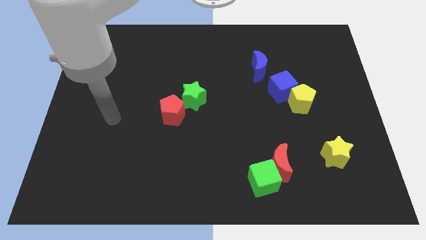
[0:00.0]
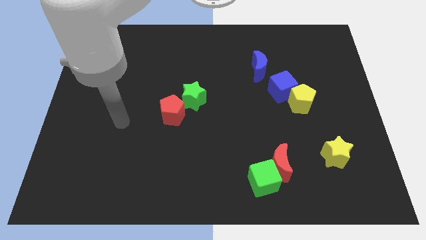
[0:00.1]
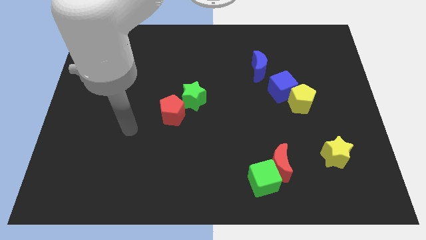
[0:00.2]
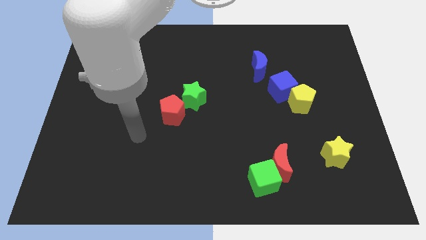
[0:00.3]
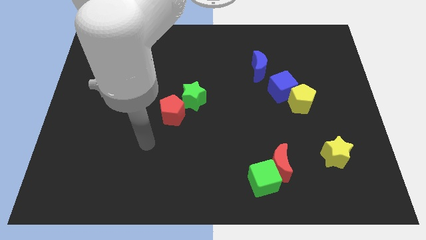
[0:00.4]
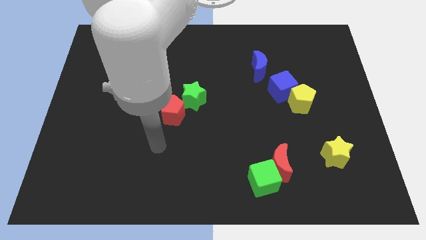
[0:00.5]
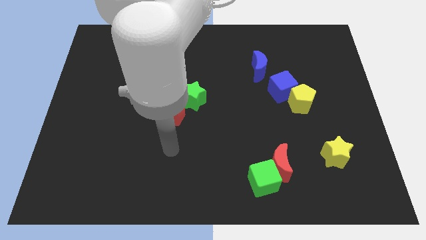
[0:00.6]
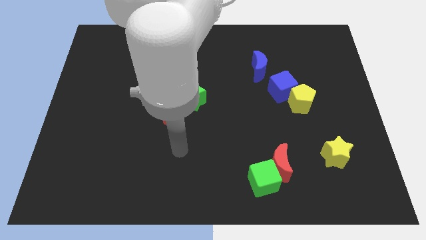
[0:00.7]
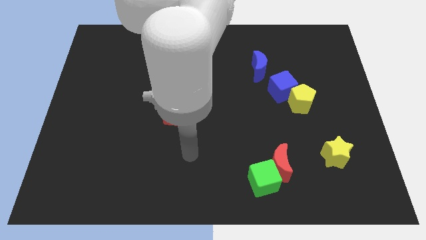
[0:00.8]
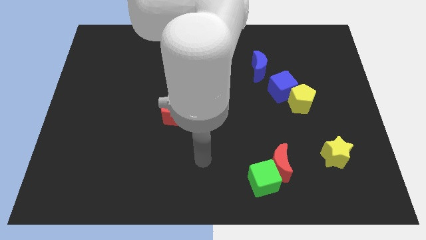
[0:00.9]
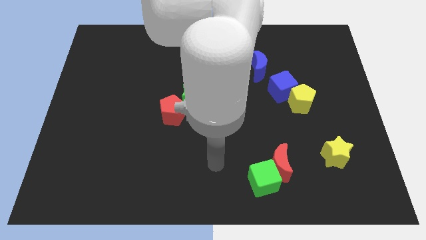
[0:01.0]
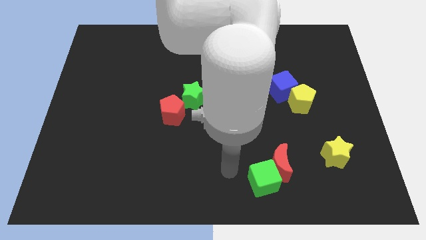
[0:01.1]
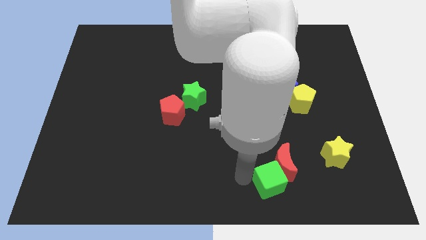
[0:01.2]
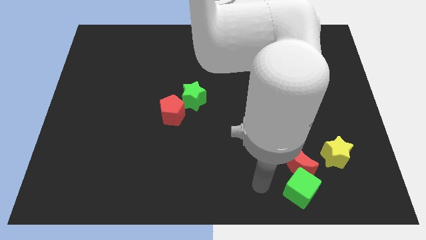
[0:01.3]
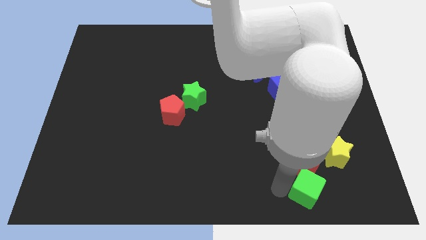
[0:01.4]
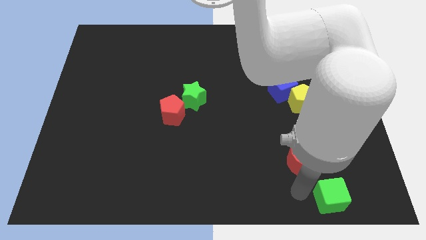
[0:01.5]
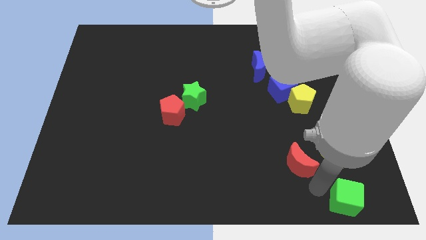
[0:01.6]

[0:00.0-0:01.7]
separate the red moon from the green cube

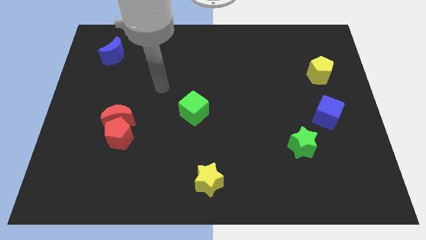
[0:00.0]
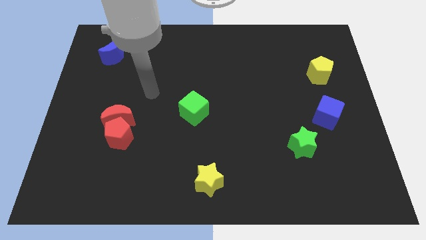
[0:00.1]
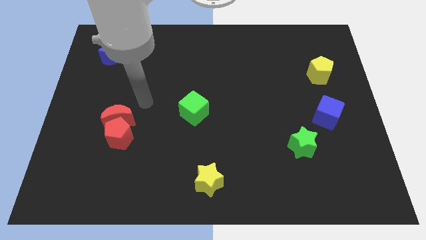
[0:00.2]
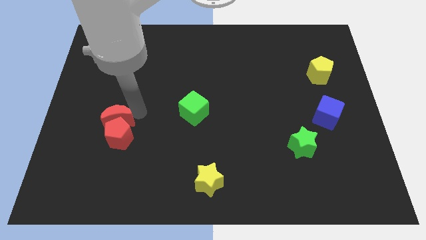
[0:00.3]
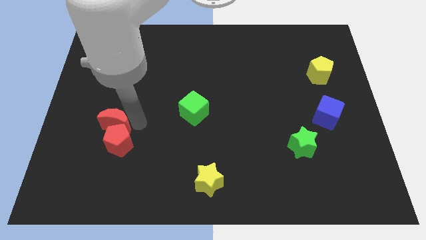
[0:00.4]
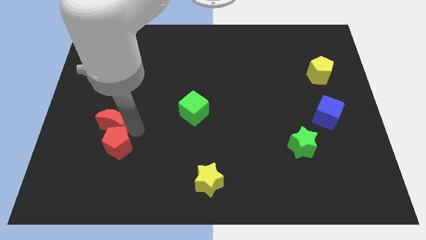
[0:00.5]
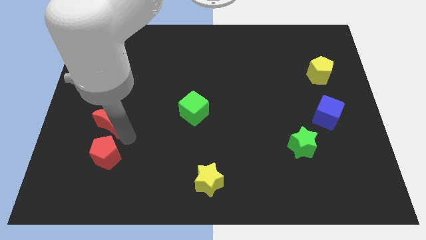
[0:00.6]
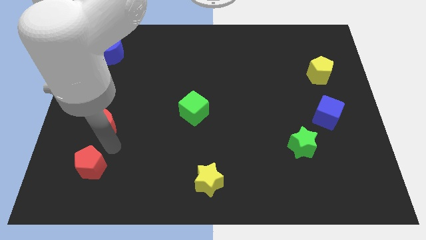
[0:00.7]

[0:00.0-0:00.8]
pull the red moon apart from the red pentagon

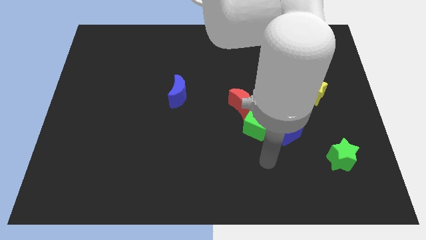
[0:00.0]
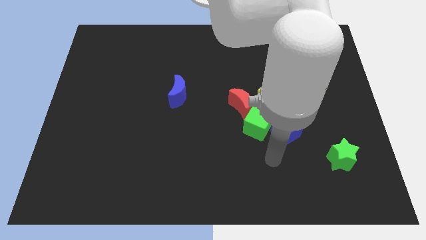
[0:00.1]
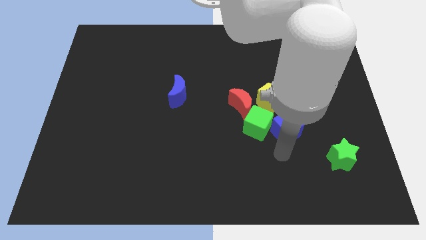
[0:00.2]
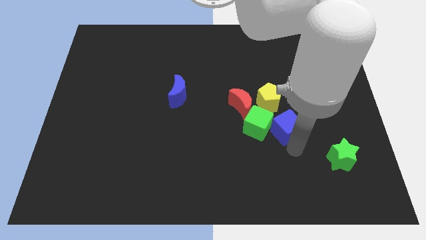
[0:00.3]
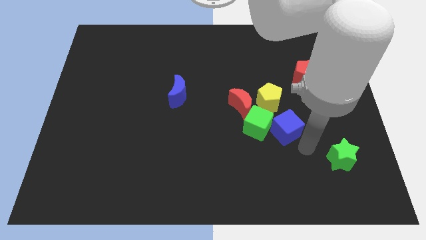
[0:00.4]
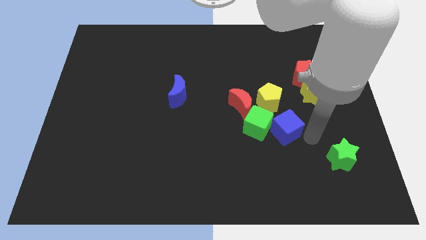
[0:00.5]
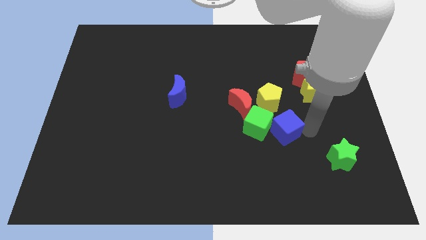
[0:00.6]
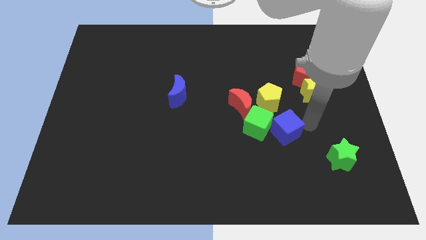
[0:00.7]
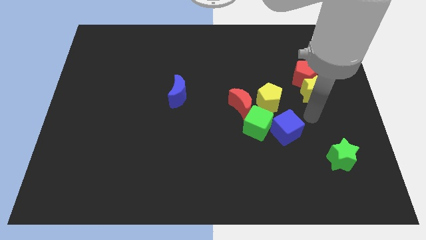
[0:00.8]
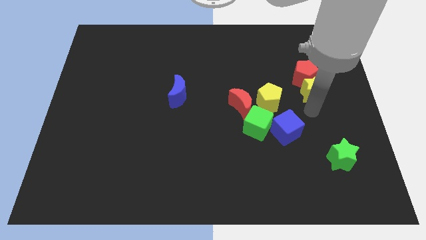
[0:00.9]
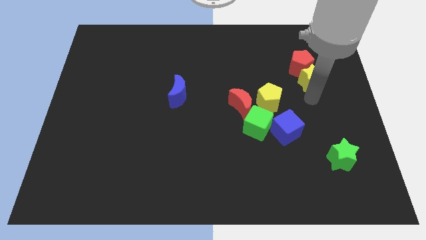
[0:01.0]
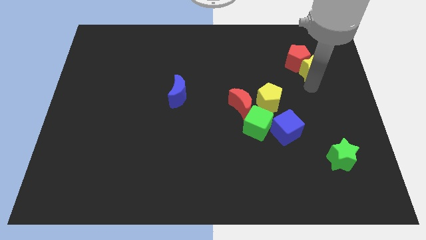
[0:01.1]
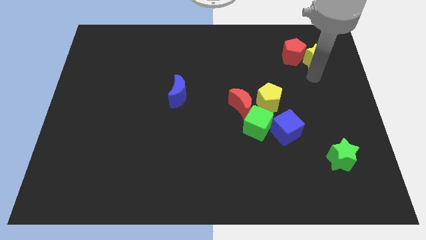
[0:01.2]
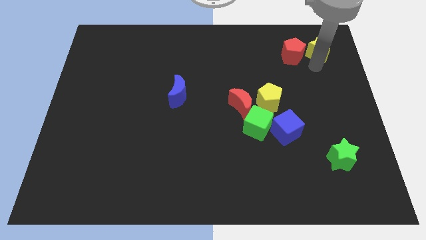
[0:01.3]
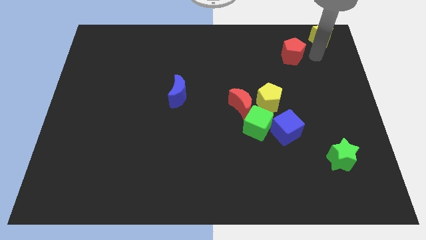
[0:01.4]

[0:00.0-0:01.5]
move the red pentagon away from the yellow star

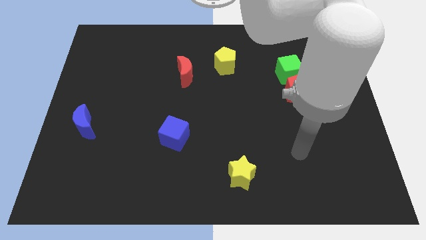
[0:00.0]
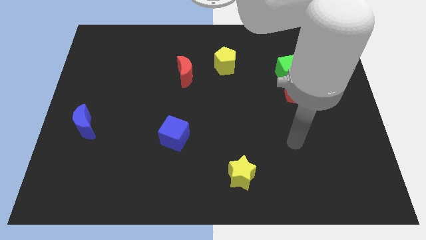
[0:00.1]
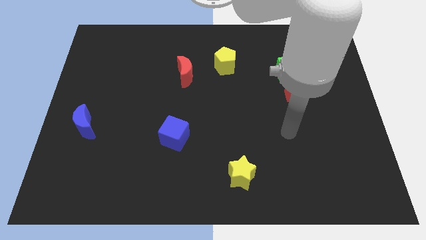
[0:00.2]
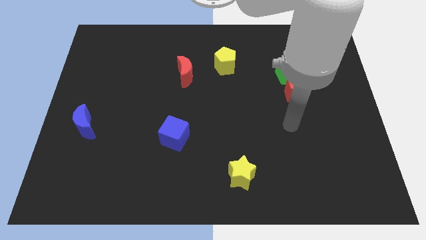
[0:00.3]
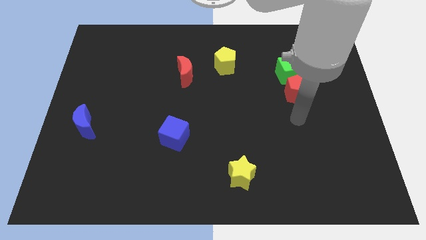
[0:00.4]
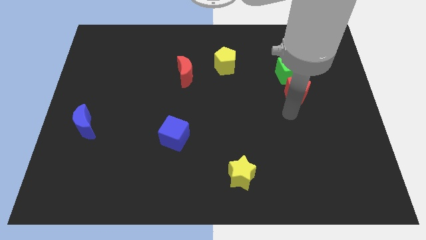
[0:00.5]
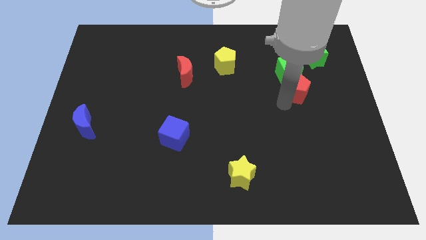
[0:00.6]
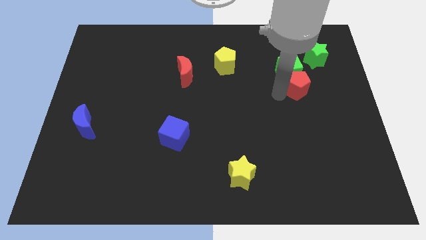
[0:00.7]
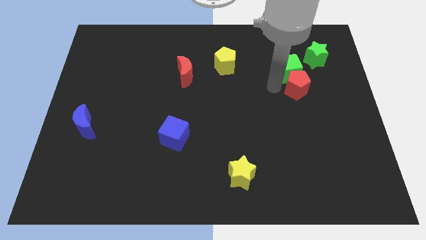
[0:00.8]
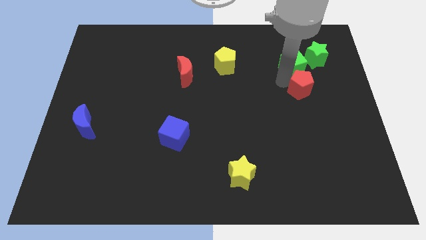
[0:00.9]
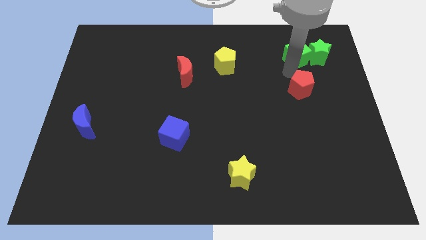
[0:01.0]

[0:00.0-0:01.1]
move the red pentagon away from the green cube

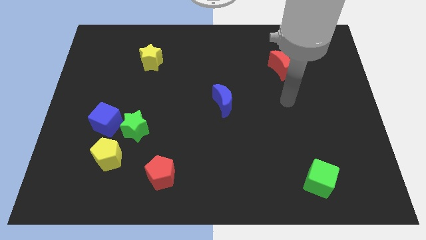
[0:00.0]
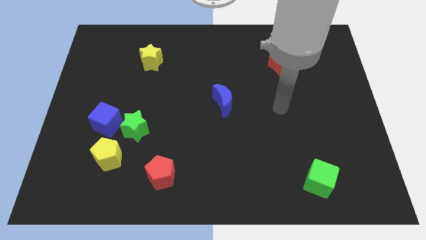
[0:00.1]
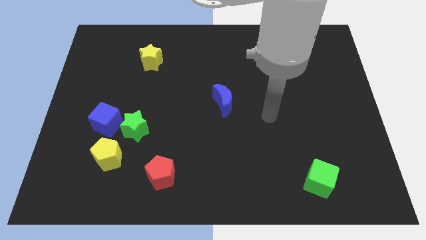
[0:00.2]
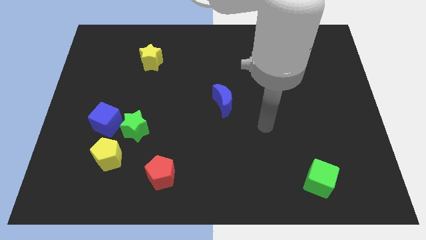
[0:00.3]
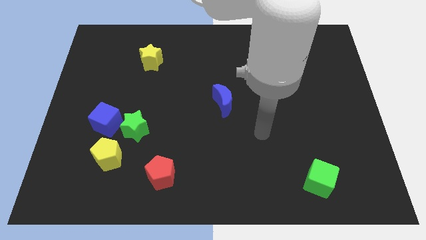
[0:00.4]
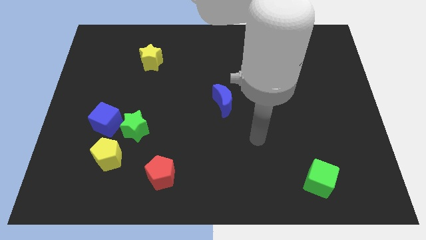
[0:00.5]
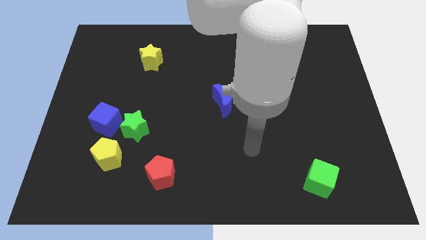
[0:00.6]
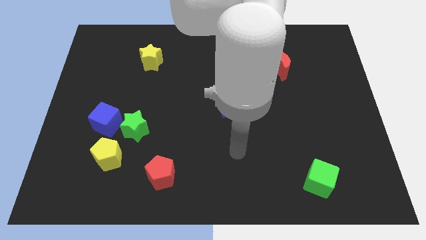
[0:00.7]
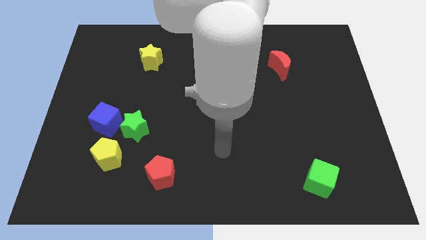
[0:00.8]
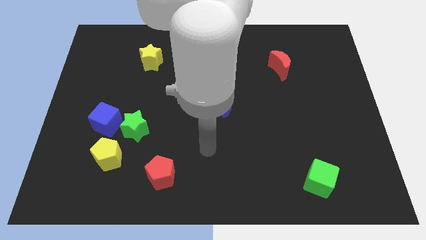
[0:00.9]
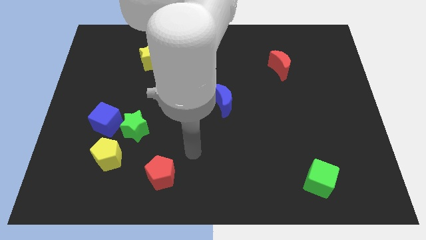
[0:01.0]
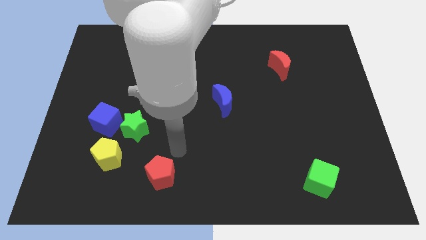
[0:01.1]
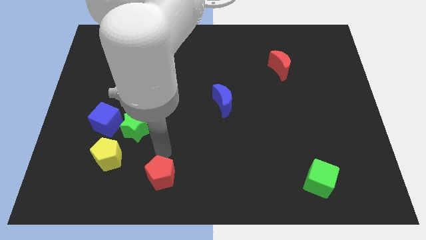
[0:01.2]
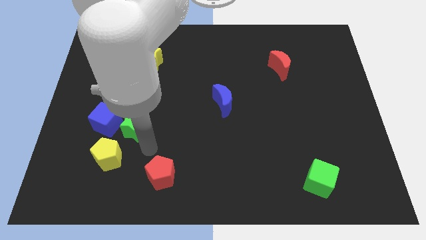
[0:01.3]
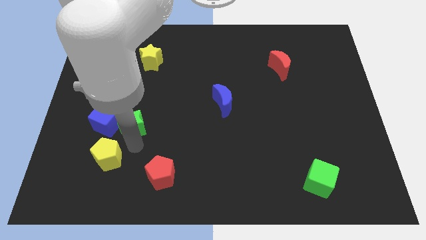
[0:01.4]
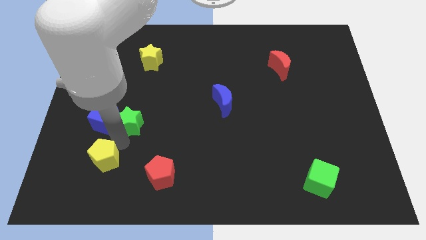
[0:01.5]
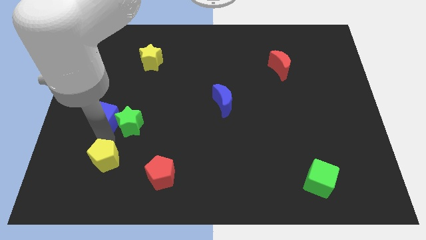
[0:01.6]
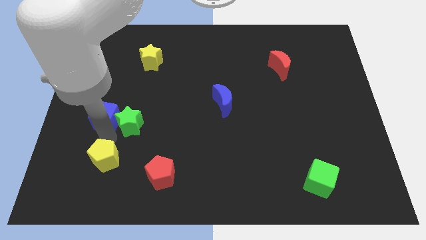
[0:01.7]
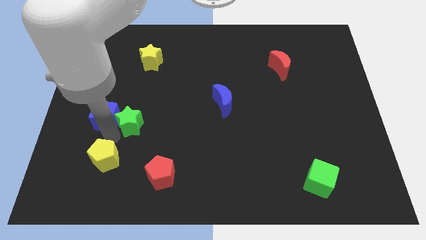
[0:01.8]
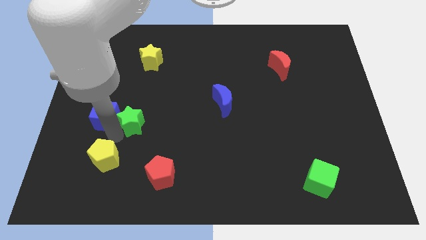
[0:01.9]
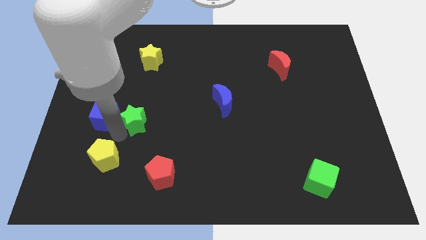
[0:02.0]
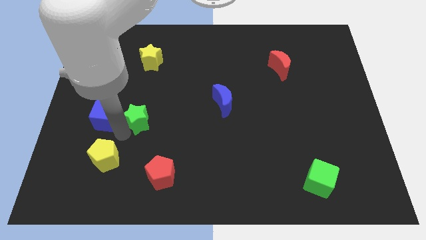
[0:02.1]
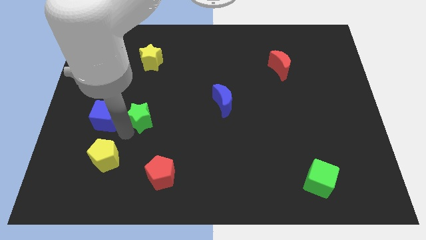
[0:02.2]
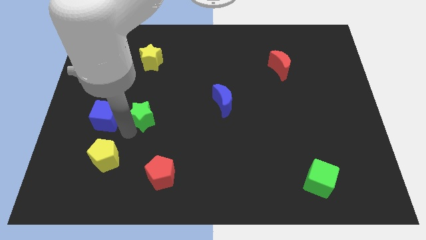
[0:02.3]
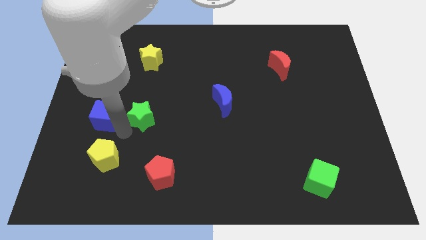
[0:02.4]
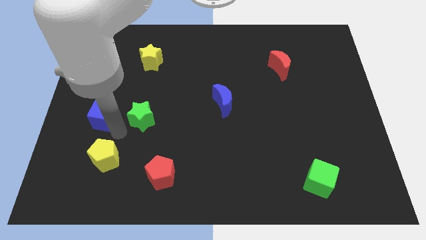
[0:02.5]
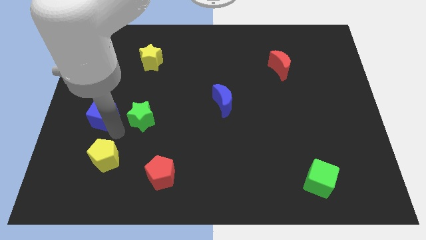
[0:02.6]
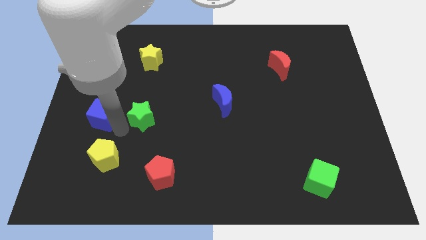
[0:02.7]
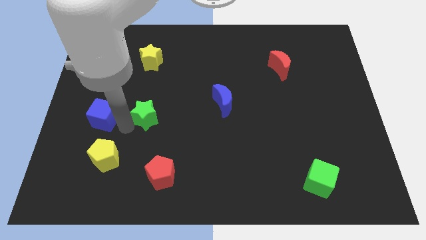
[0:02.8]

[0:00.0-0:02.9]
pull the green star apart from the blue cube and yellow pentagon

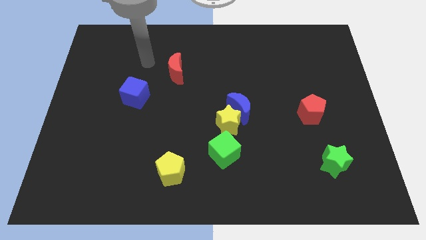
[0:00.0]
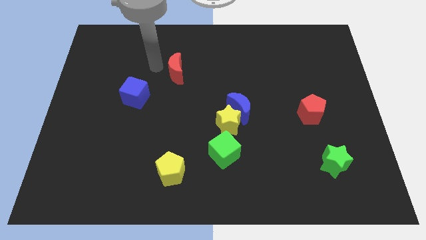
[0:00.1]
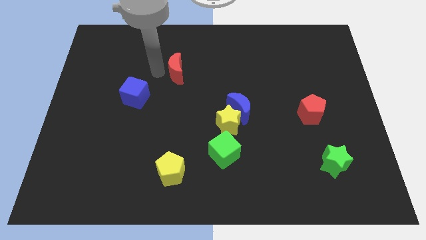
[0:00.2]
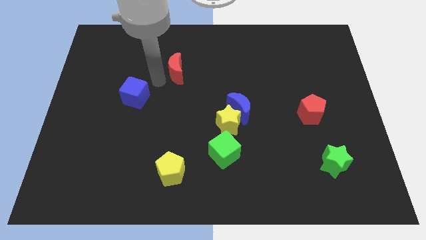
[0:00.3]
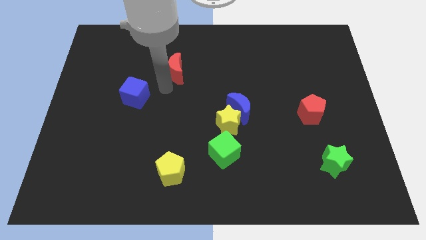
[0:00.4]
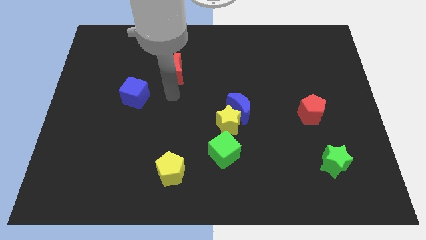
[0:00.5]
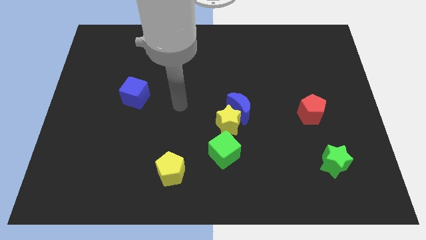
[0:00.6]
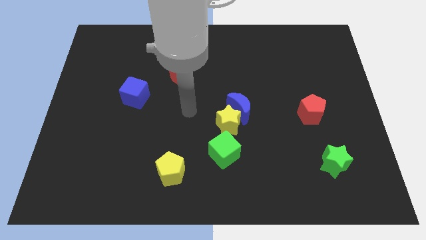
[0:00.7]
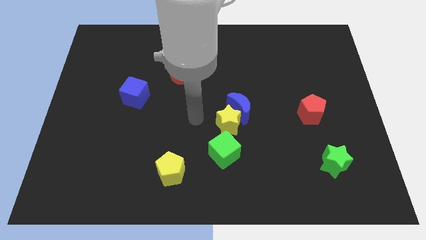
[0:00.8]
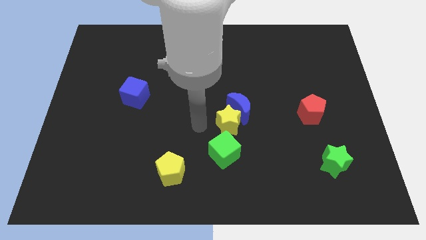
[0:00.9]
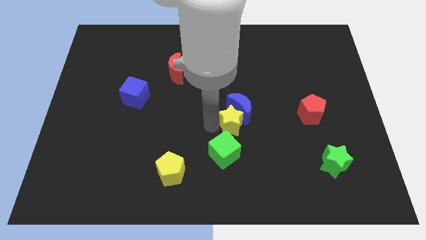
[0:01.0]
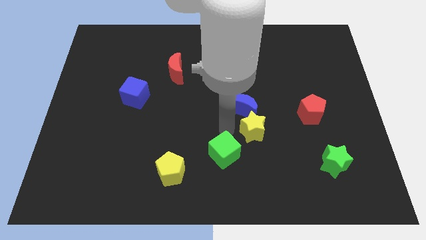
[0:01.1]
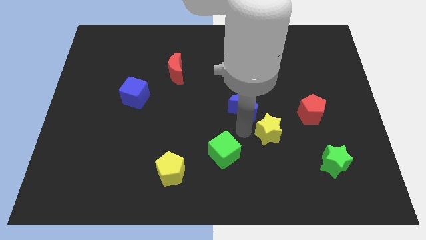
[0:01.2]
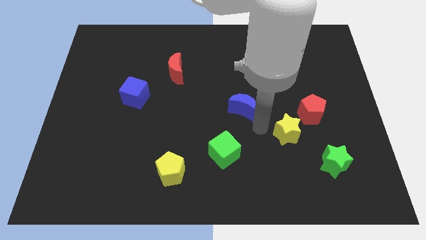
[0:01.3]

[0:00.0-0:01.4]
move the blue moon away from the yellow star
